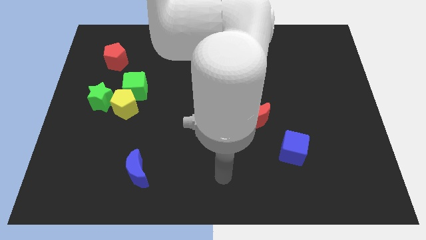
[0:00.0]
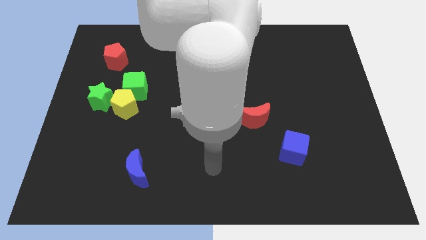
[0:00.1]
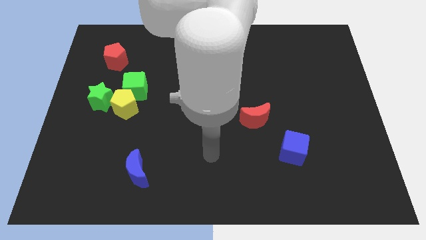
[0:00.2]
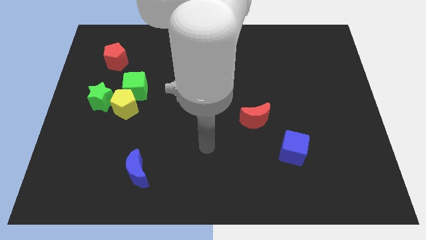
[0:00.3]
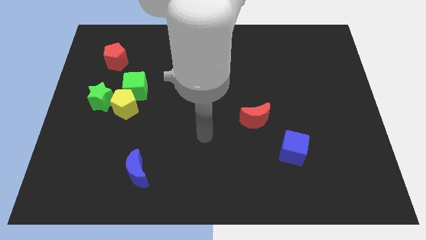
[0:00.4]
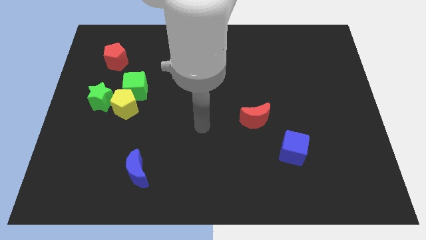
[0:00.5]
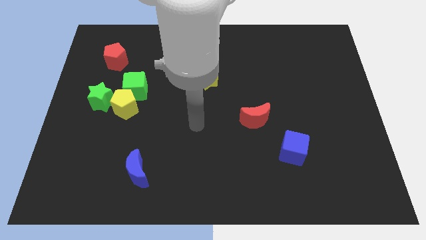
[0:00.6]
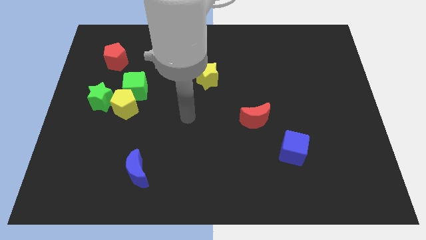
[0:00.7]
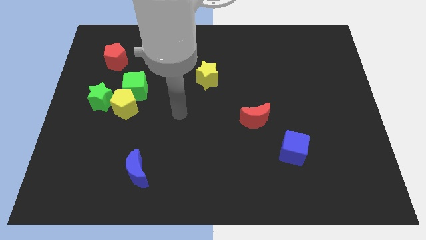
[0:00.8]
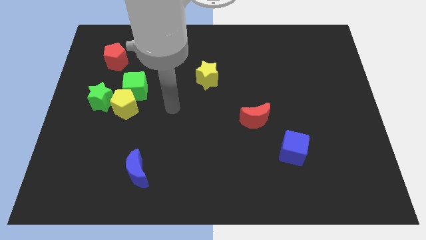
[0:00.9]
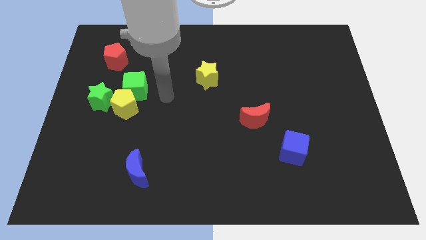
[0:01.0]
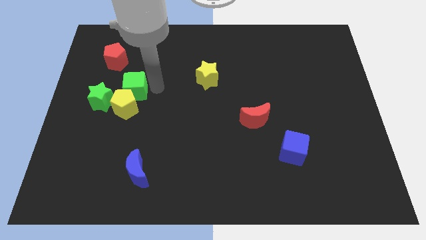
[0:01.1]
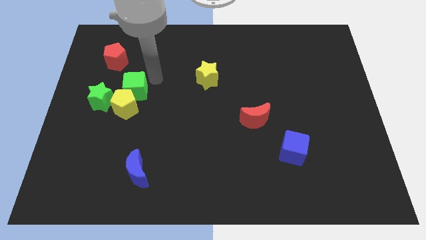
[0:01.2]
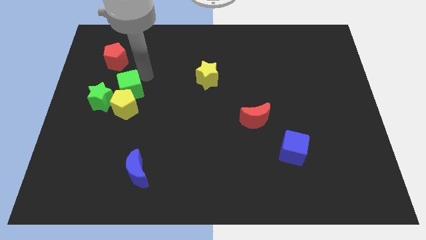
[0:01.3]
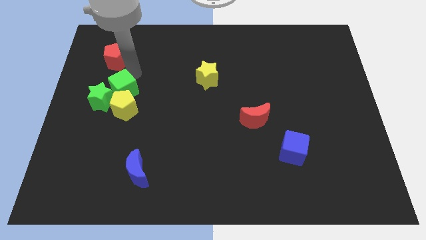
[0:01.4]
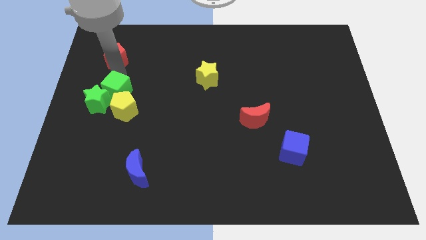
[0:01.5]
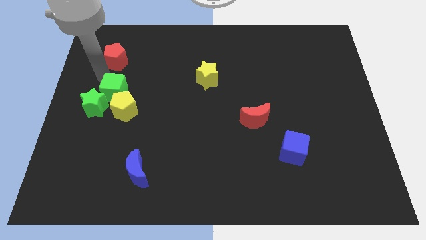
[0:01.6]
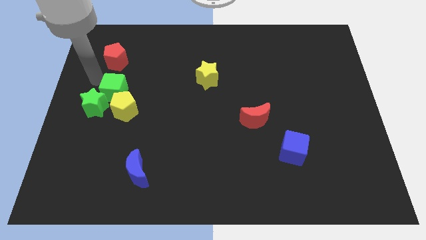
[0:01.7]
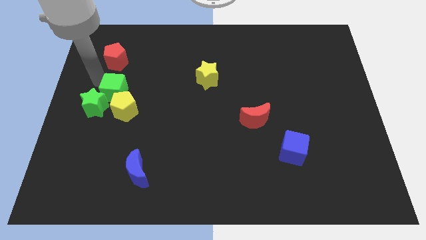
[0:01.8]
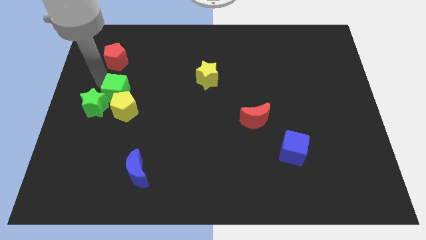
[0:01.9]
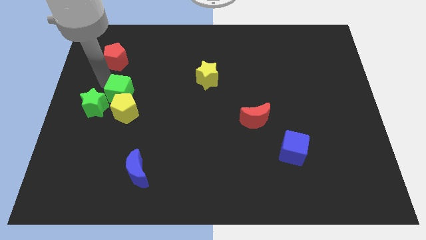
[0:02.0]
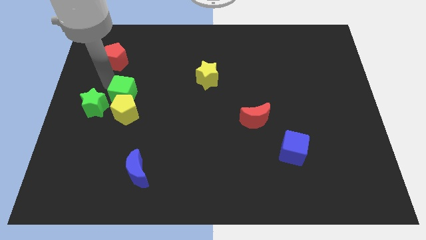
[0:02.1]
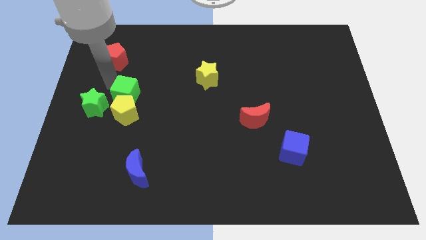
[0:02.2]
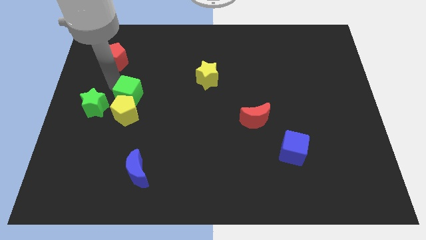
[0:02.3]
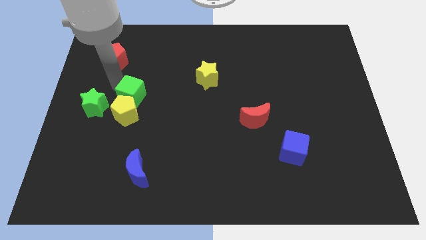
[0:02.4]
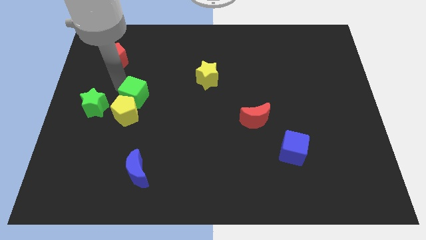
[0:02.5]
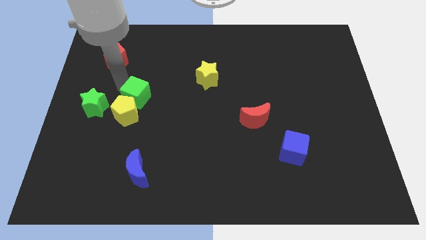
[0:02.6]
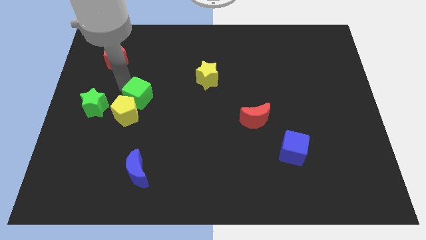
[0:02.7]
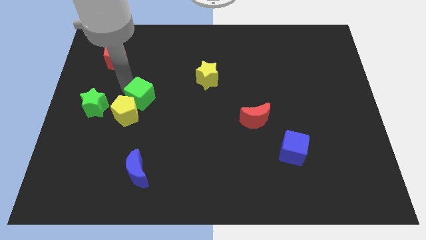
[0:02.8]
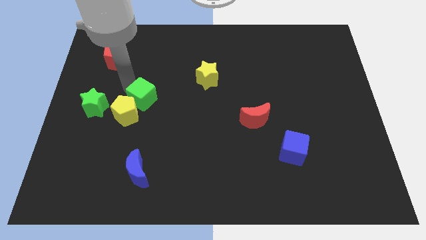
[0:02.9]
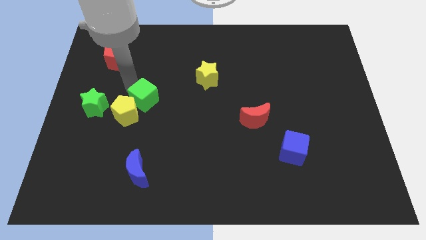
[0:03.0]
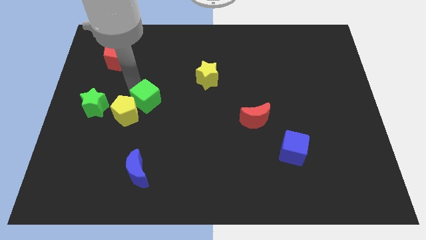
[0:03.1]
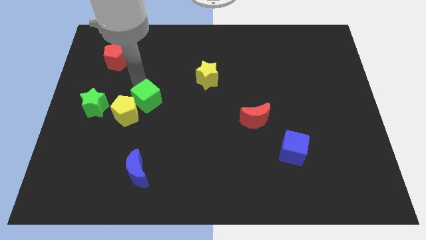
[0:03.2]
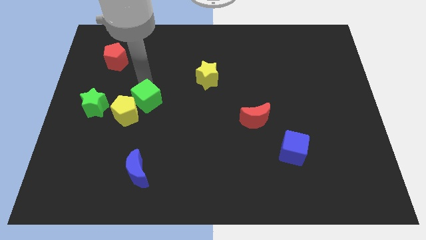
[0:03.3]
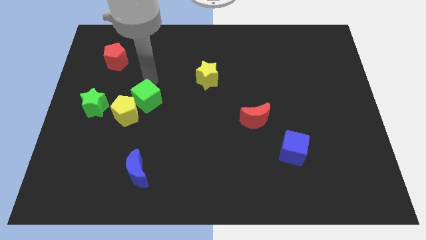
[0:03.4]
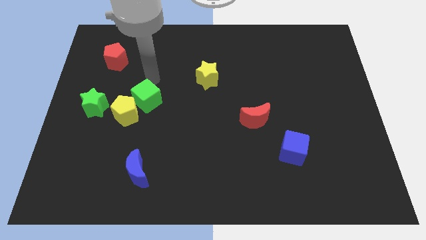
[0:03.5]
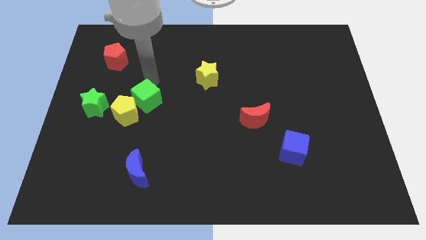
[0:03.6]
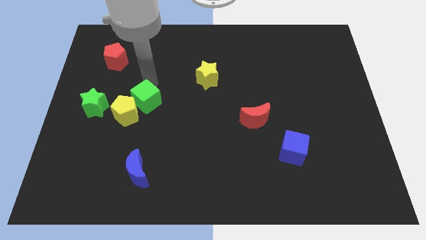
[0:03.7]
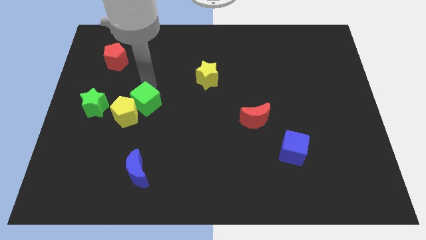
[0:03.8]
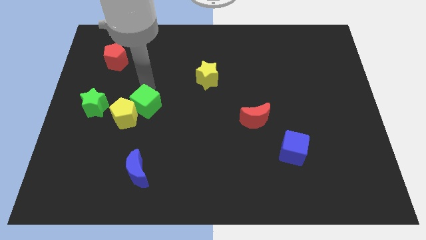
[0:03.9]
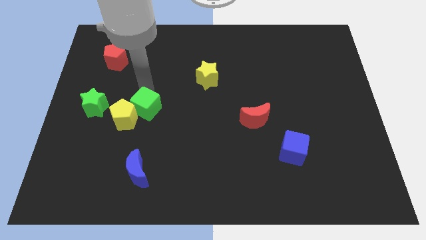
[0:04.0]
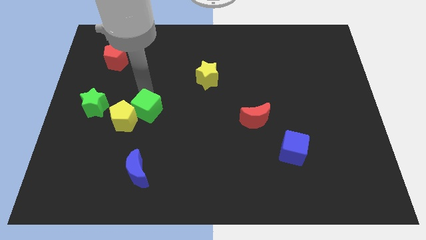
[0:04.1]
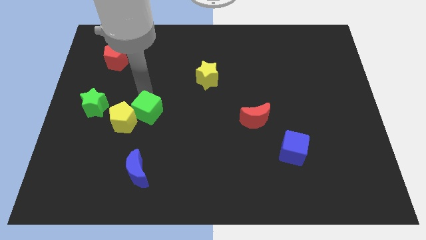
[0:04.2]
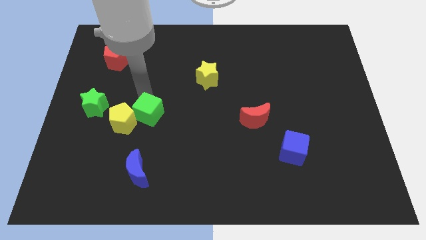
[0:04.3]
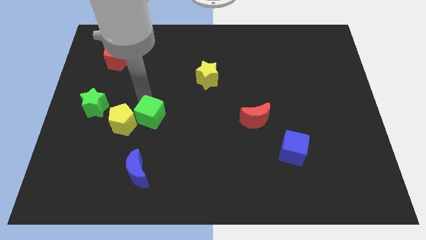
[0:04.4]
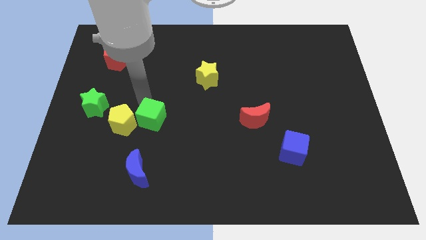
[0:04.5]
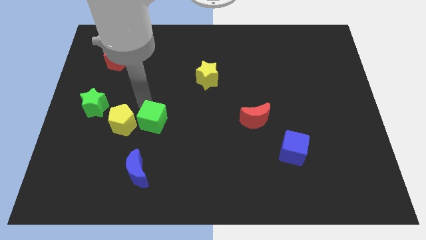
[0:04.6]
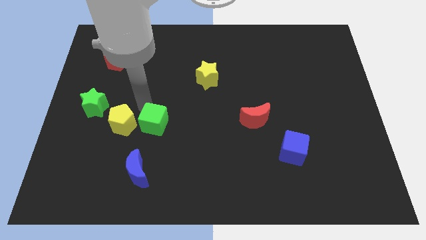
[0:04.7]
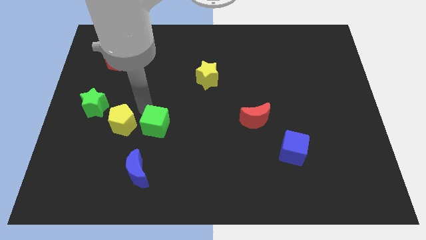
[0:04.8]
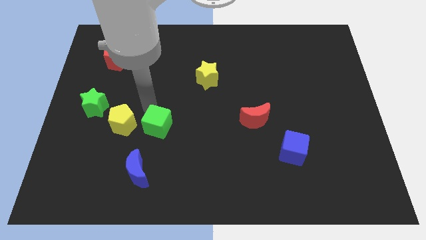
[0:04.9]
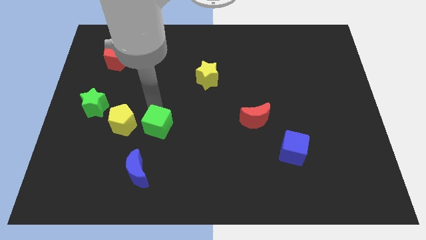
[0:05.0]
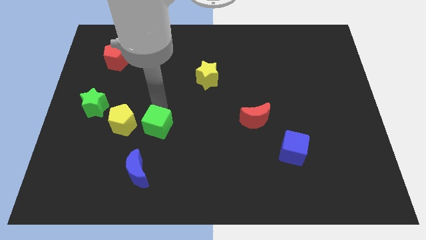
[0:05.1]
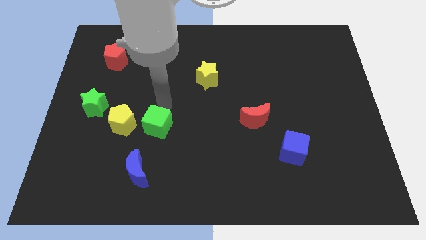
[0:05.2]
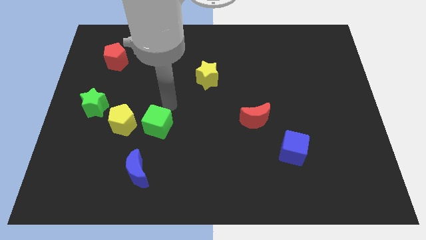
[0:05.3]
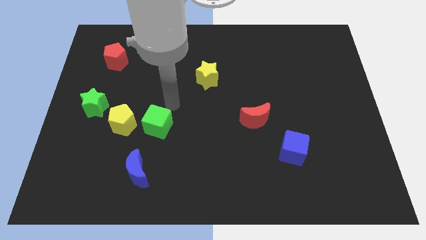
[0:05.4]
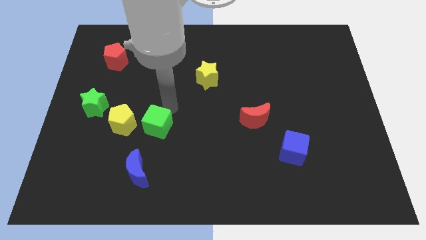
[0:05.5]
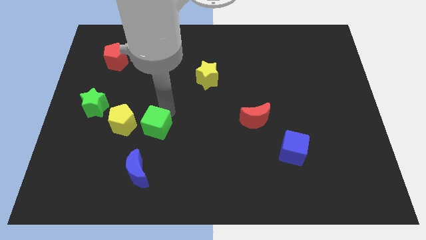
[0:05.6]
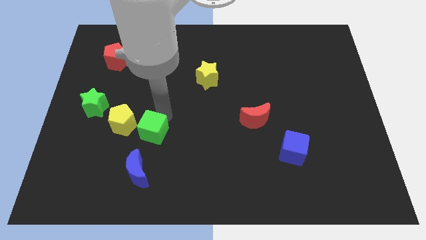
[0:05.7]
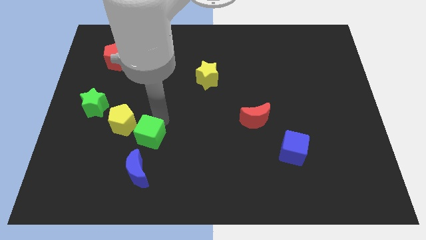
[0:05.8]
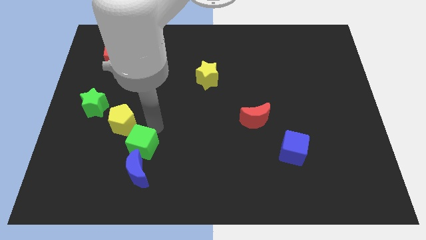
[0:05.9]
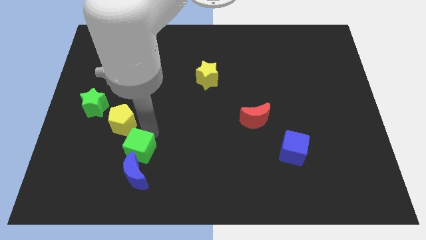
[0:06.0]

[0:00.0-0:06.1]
move the green cube close to the blue moon

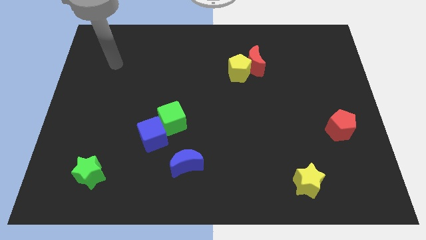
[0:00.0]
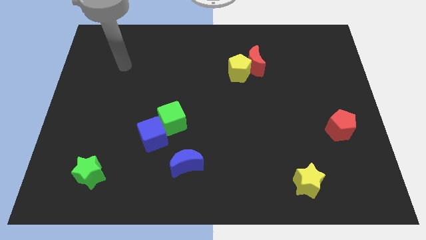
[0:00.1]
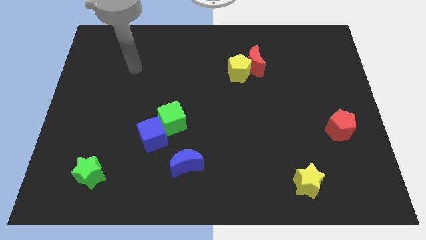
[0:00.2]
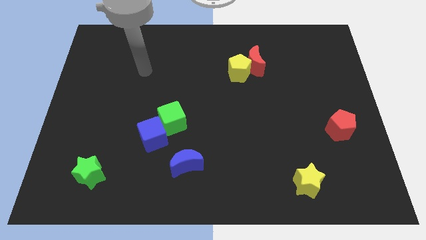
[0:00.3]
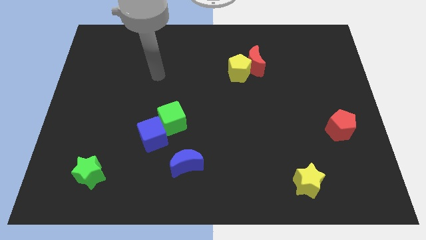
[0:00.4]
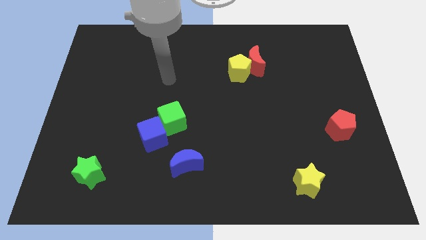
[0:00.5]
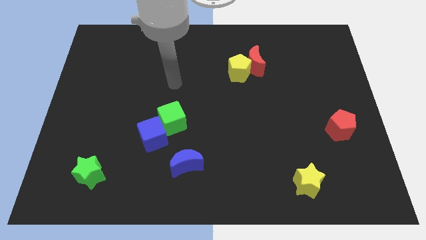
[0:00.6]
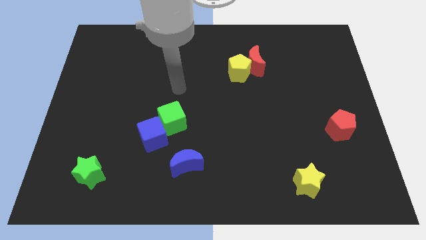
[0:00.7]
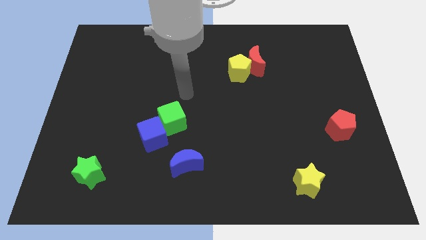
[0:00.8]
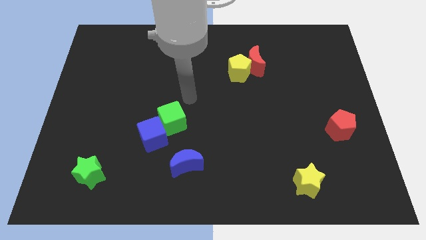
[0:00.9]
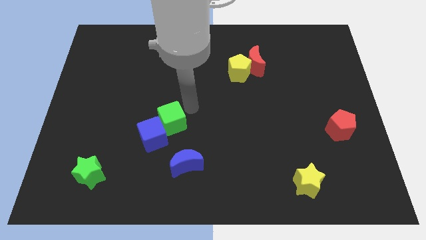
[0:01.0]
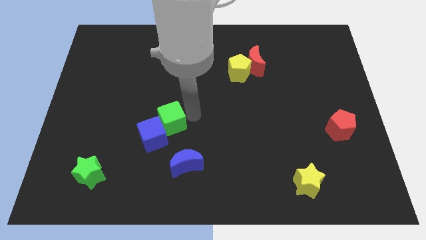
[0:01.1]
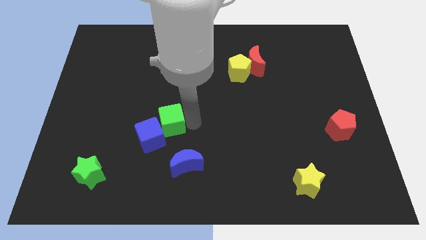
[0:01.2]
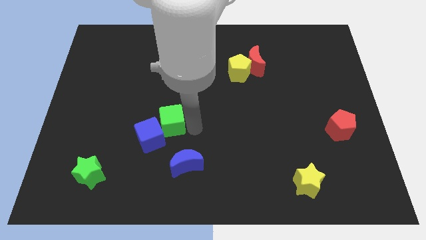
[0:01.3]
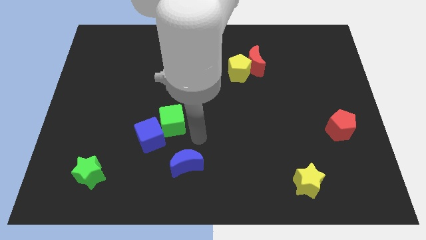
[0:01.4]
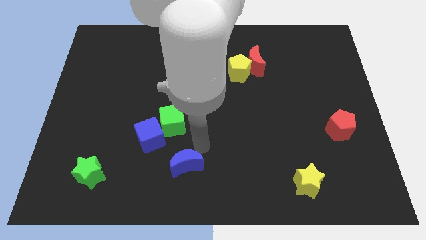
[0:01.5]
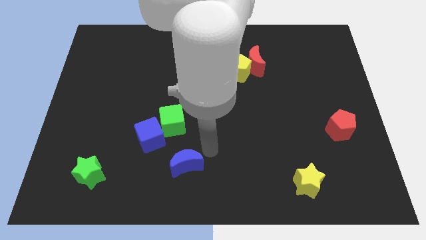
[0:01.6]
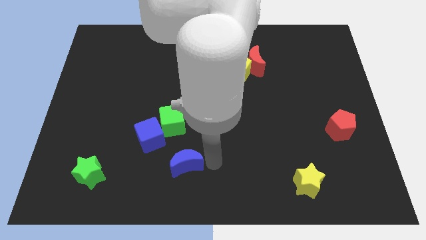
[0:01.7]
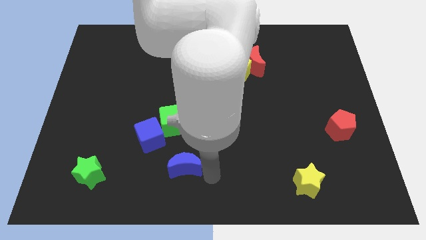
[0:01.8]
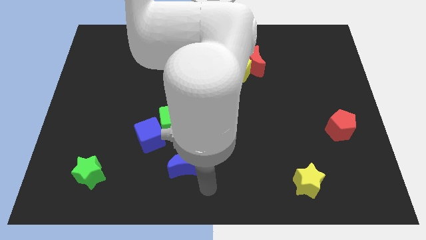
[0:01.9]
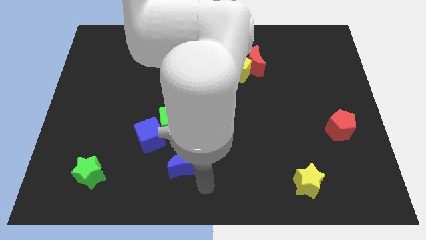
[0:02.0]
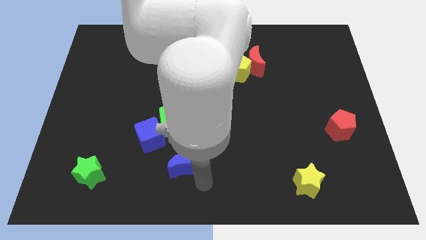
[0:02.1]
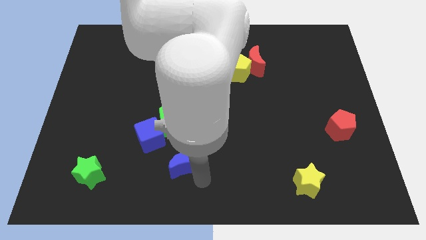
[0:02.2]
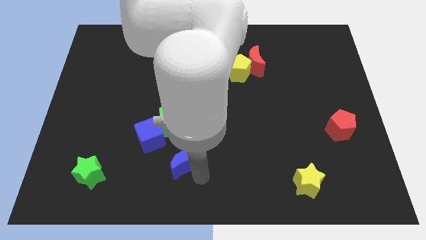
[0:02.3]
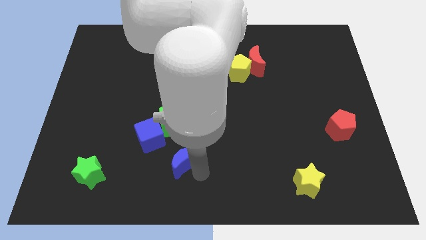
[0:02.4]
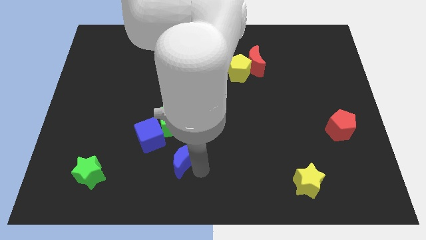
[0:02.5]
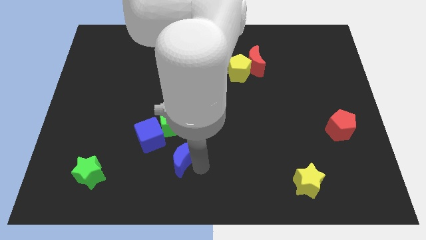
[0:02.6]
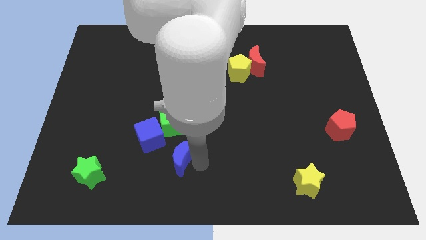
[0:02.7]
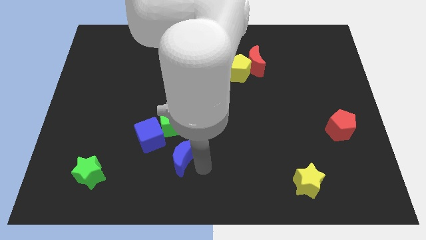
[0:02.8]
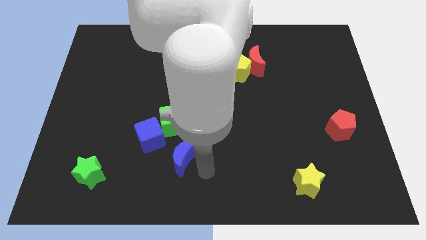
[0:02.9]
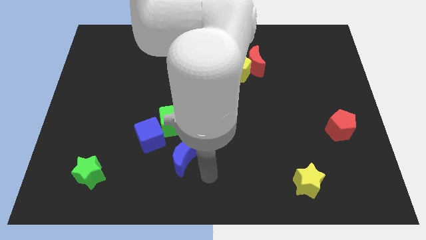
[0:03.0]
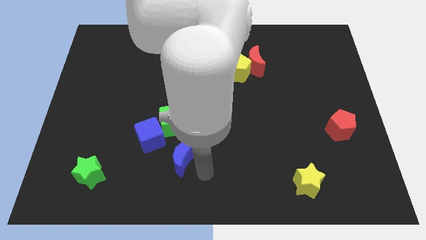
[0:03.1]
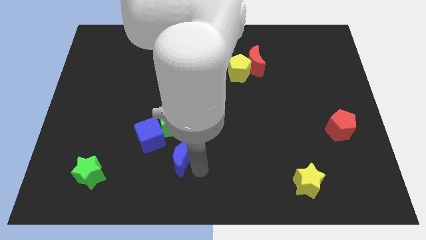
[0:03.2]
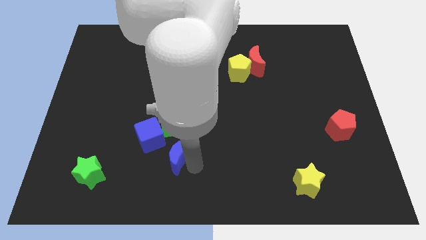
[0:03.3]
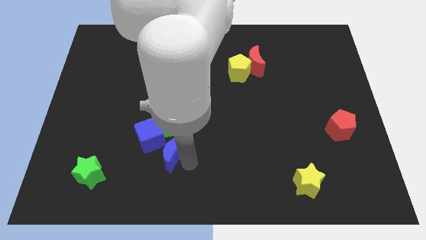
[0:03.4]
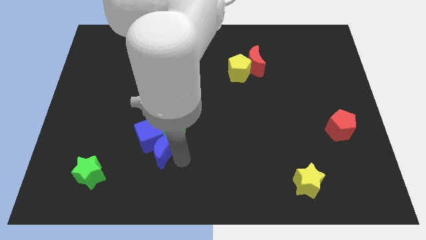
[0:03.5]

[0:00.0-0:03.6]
slide the blue moon next to the blue cube
